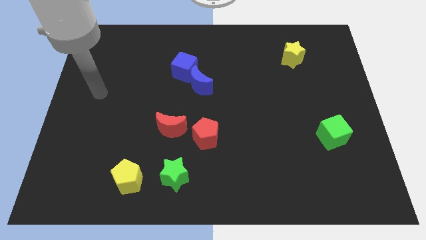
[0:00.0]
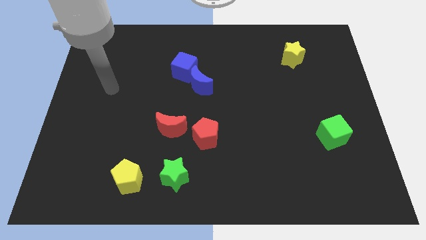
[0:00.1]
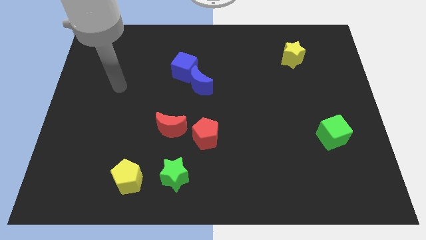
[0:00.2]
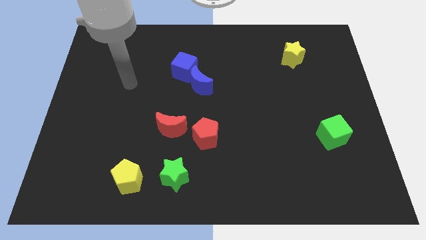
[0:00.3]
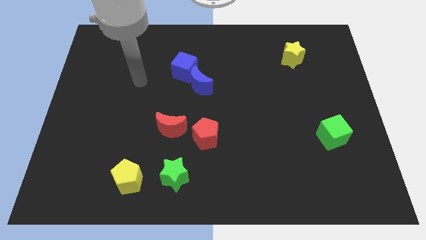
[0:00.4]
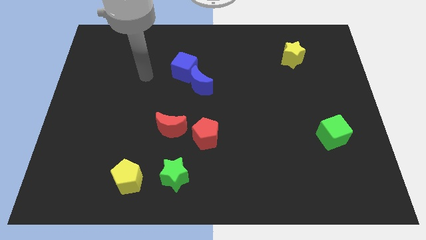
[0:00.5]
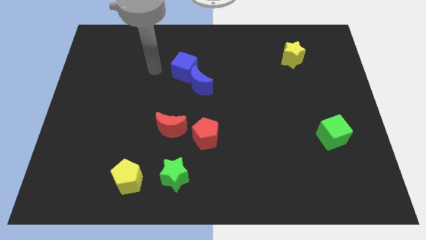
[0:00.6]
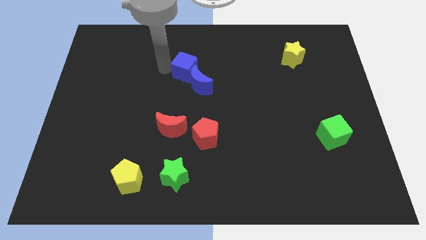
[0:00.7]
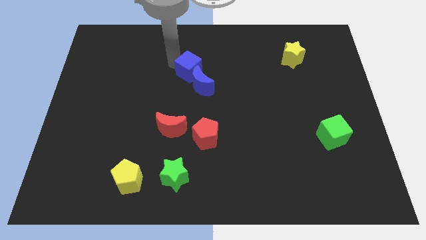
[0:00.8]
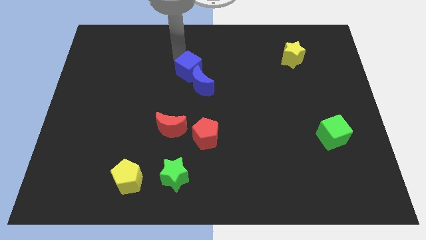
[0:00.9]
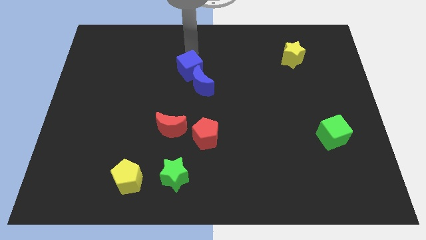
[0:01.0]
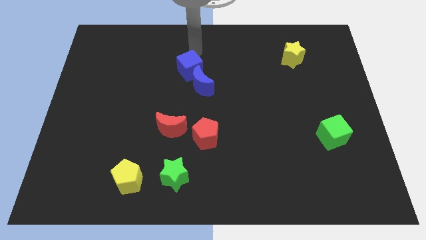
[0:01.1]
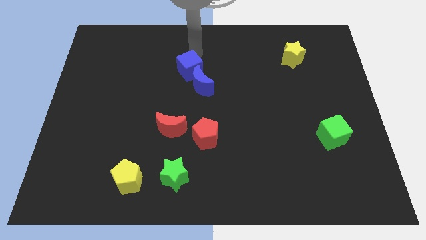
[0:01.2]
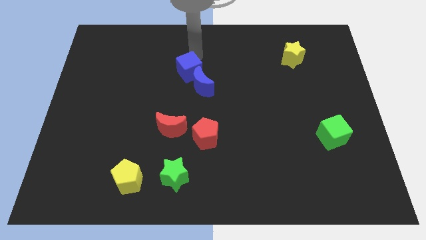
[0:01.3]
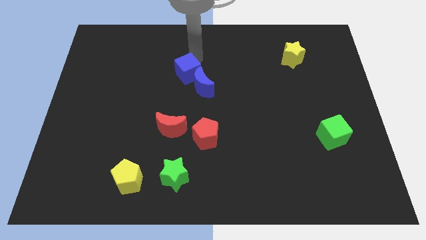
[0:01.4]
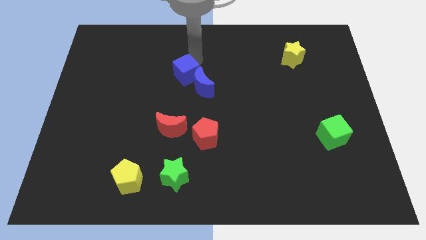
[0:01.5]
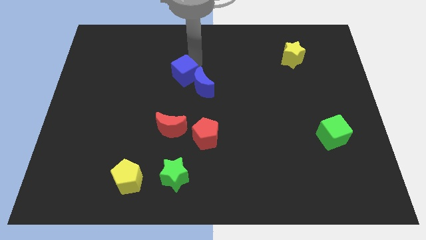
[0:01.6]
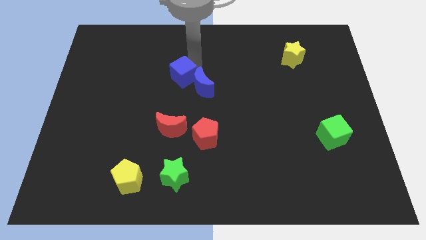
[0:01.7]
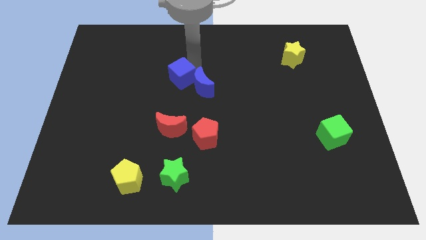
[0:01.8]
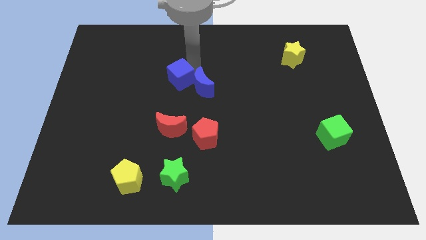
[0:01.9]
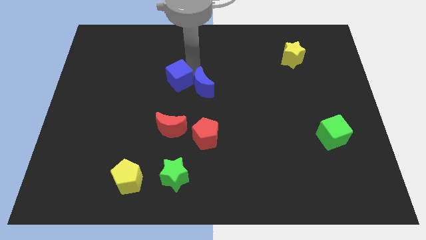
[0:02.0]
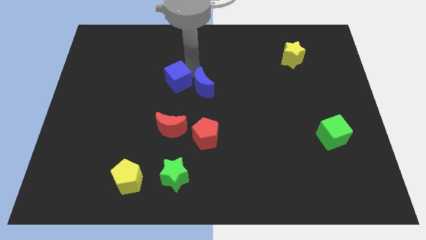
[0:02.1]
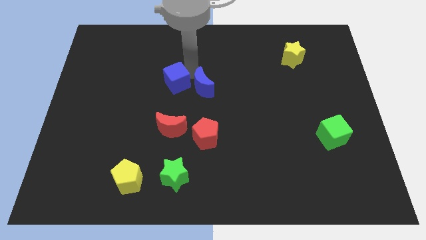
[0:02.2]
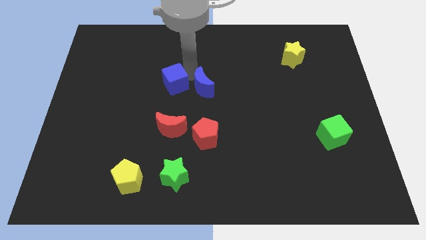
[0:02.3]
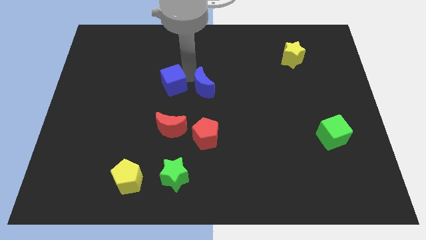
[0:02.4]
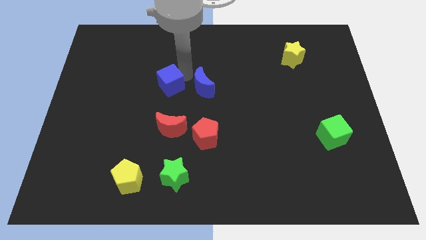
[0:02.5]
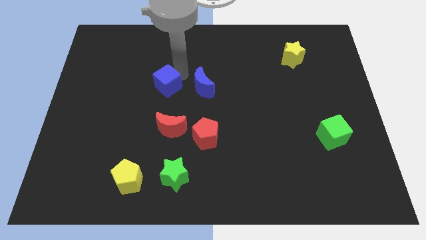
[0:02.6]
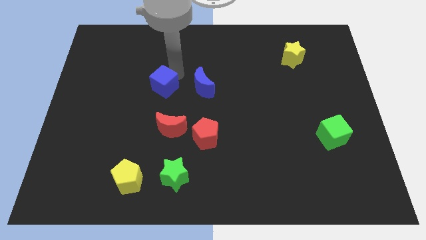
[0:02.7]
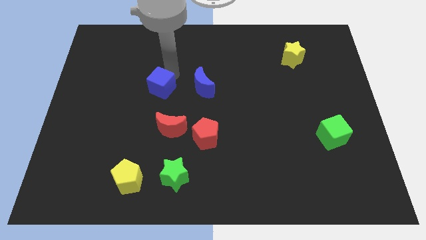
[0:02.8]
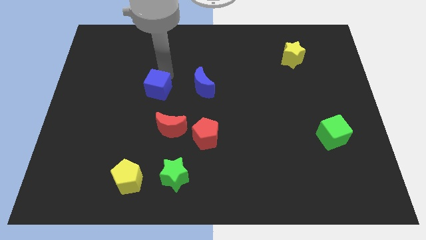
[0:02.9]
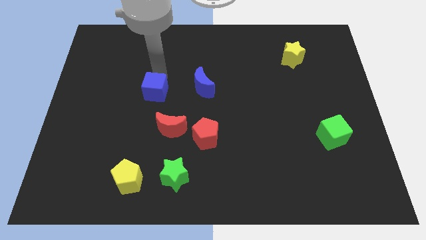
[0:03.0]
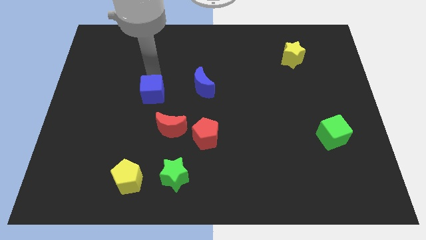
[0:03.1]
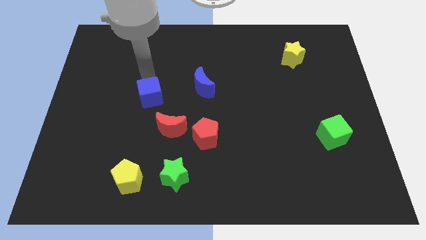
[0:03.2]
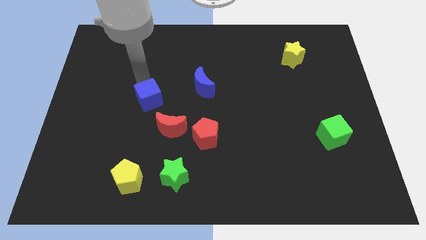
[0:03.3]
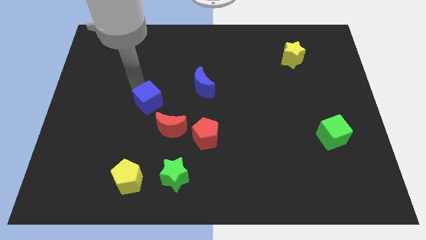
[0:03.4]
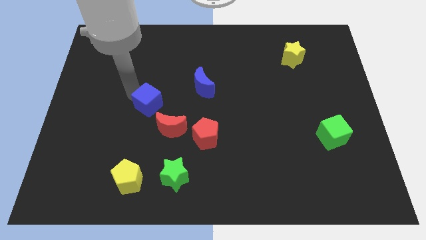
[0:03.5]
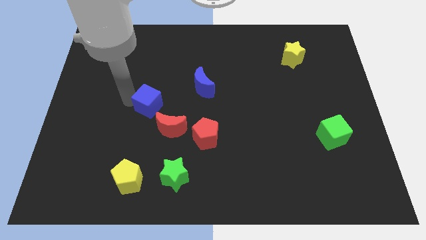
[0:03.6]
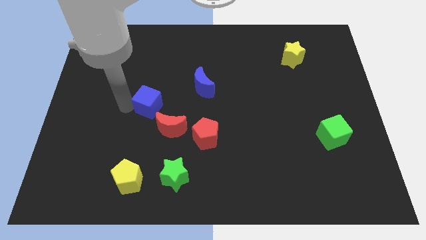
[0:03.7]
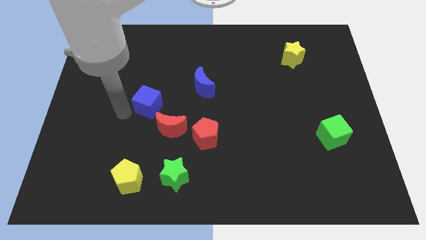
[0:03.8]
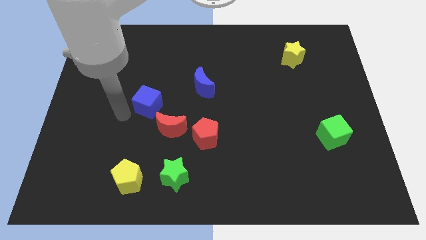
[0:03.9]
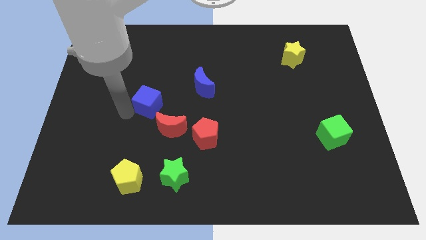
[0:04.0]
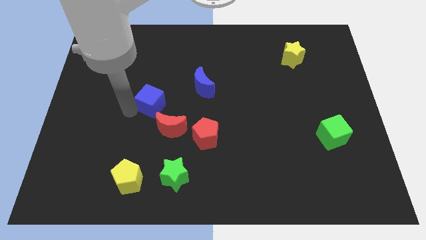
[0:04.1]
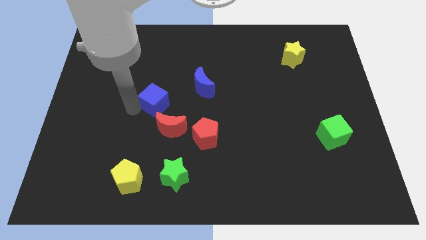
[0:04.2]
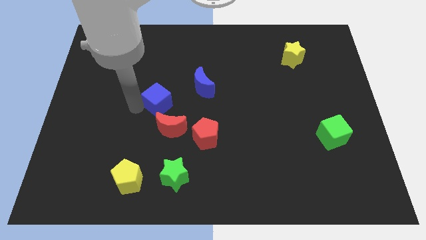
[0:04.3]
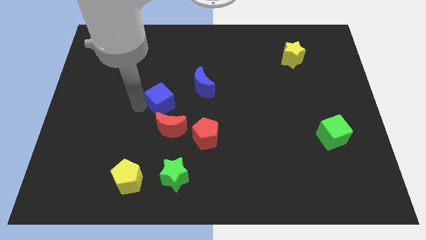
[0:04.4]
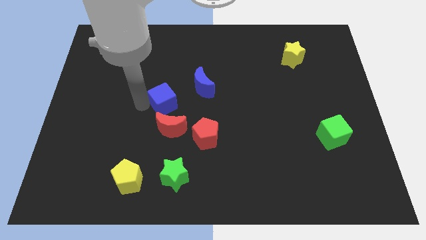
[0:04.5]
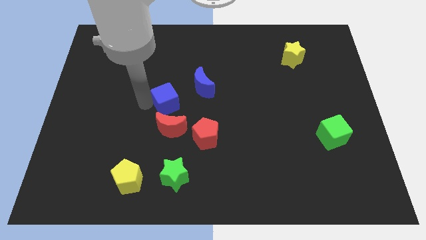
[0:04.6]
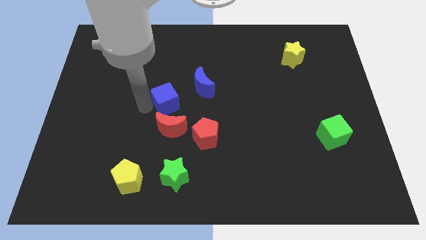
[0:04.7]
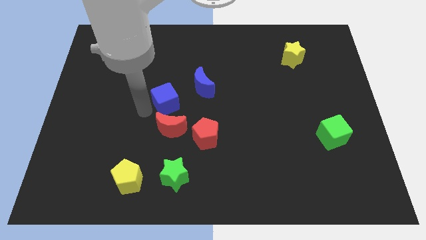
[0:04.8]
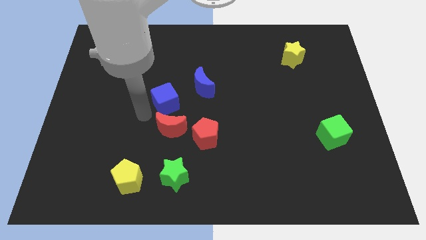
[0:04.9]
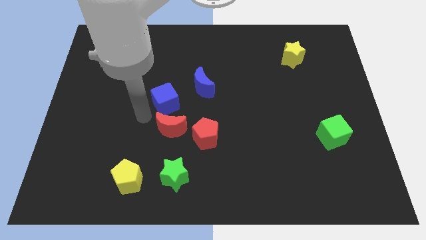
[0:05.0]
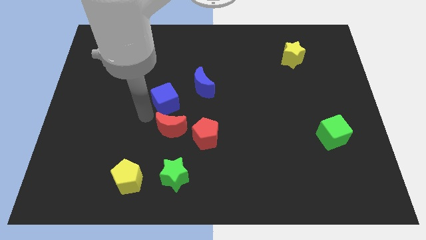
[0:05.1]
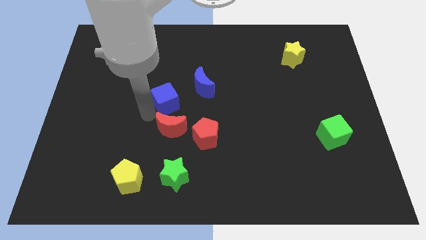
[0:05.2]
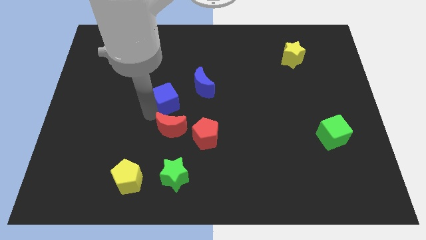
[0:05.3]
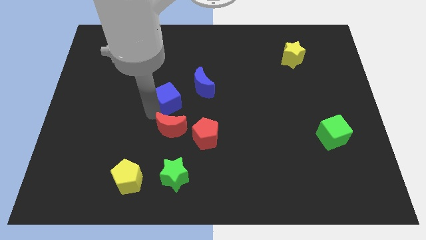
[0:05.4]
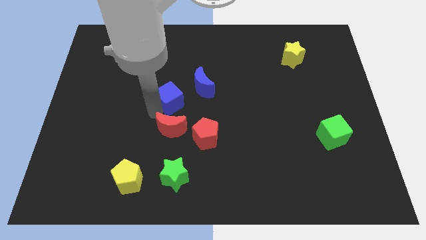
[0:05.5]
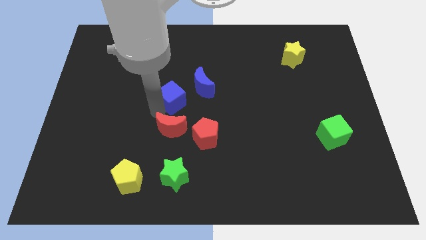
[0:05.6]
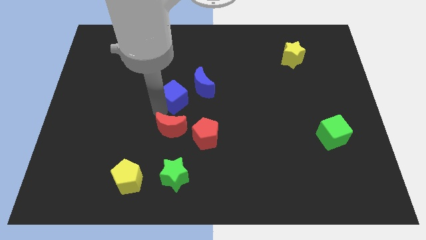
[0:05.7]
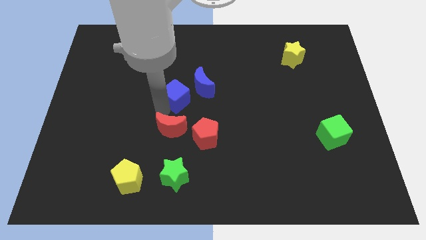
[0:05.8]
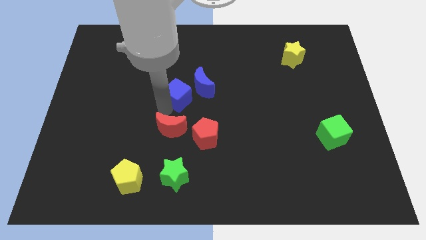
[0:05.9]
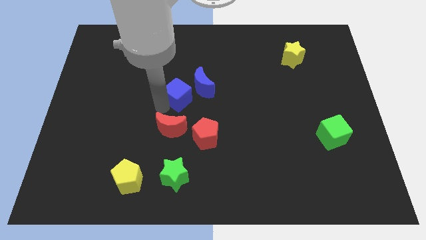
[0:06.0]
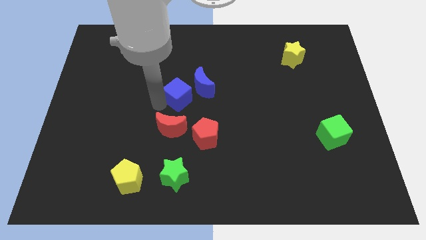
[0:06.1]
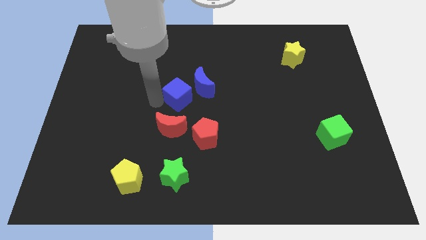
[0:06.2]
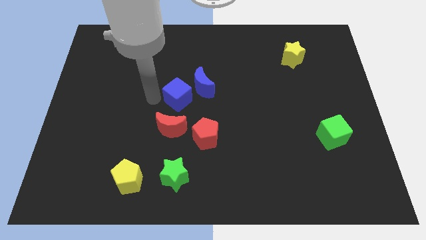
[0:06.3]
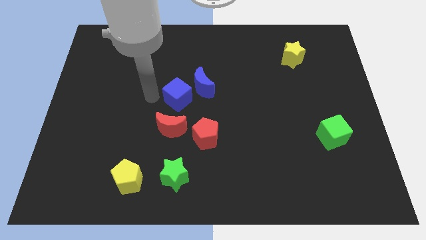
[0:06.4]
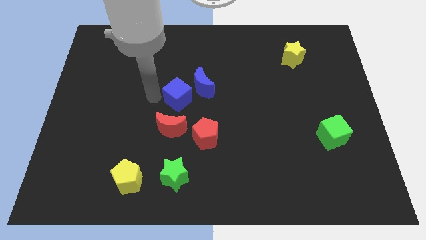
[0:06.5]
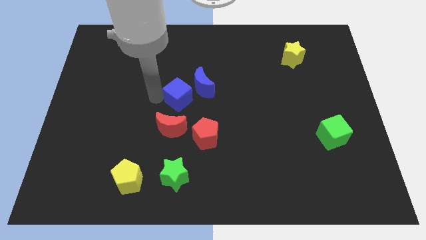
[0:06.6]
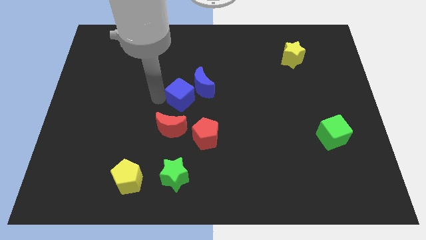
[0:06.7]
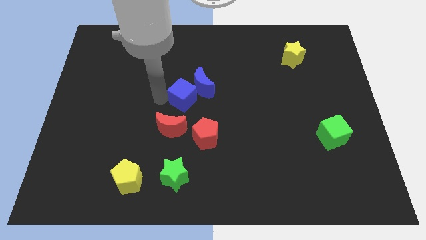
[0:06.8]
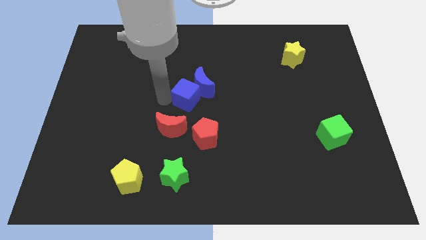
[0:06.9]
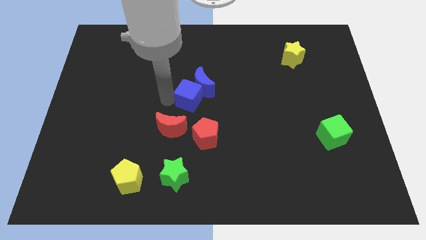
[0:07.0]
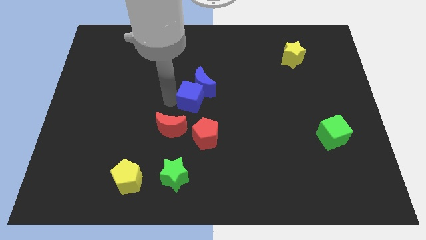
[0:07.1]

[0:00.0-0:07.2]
move the blue cube down and to the right somewhat

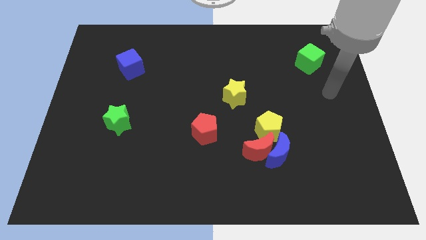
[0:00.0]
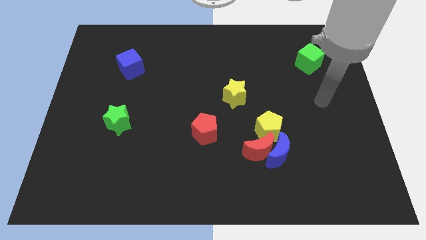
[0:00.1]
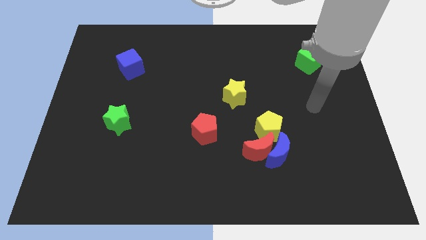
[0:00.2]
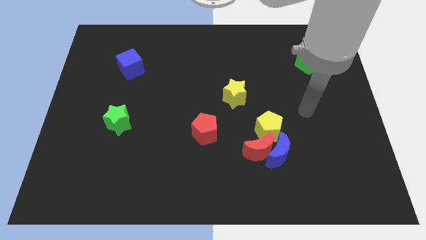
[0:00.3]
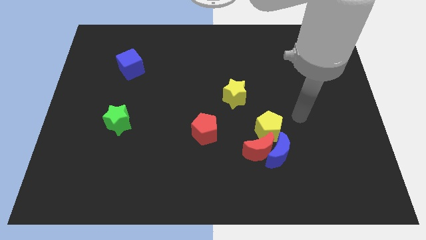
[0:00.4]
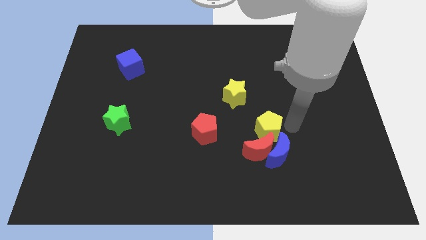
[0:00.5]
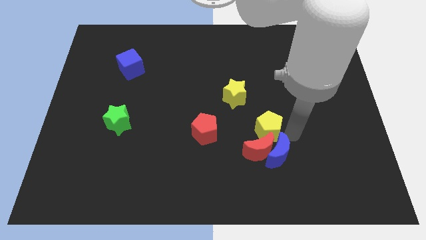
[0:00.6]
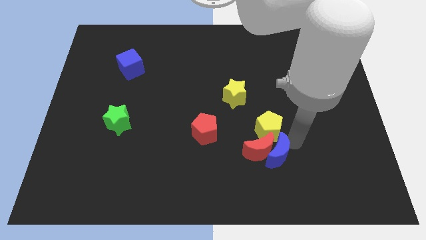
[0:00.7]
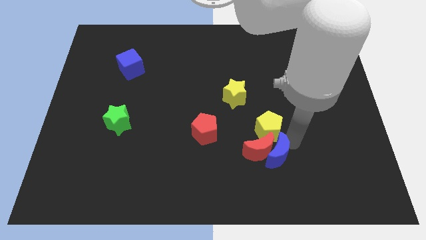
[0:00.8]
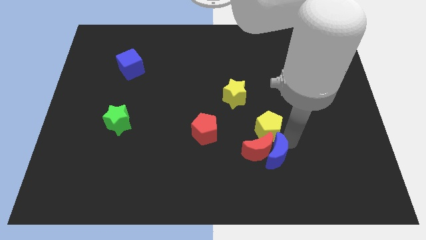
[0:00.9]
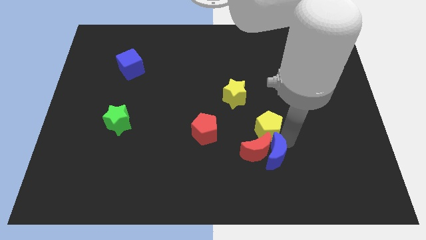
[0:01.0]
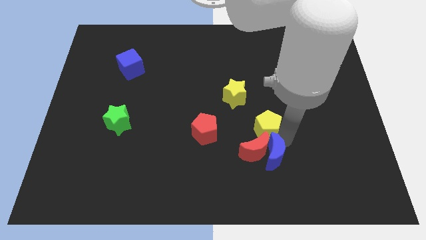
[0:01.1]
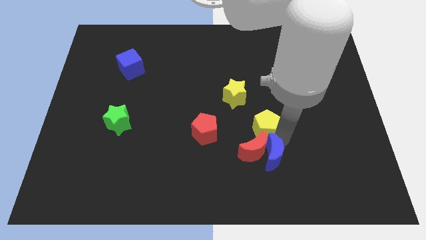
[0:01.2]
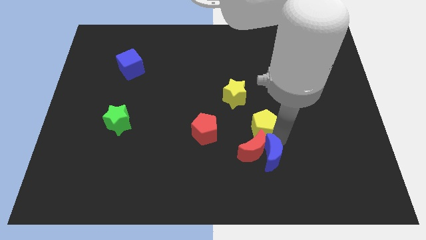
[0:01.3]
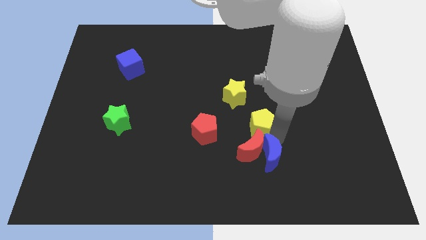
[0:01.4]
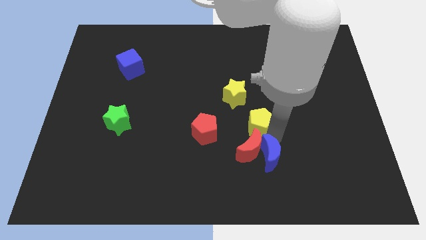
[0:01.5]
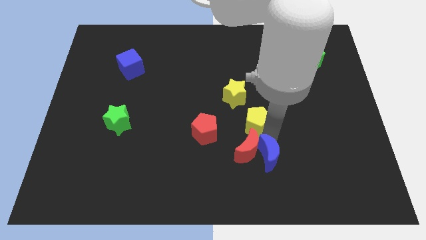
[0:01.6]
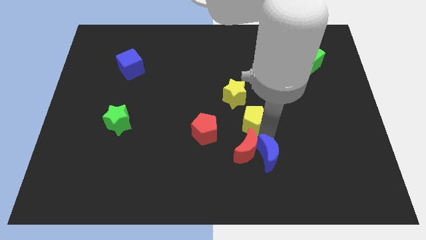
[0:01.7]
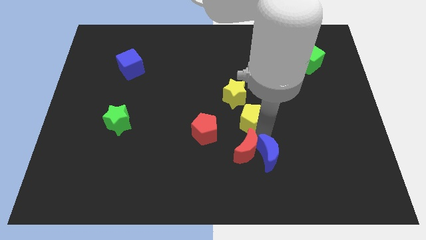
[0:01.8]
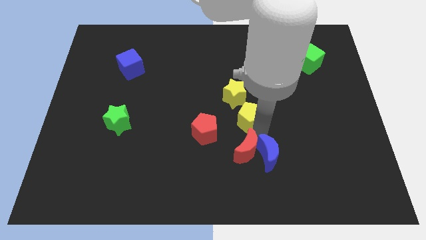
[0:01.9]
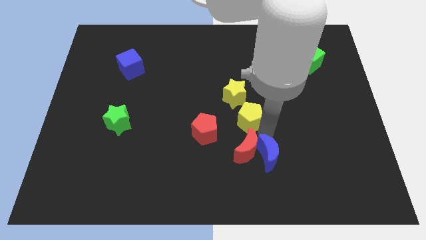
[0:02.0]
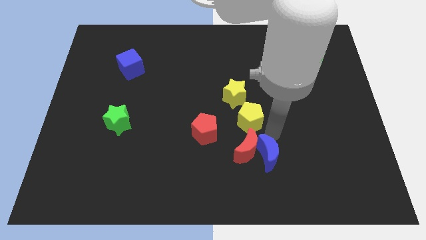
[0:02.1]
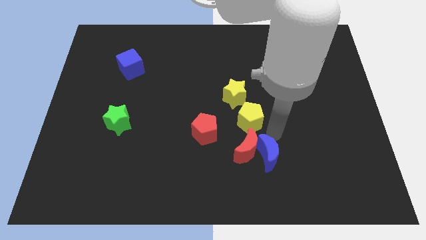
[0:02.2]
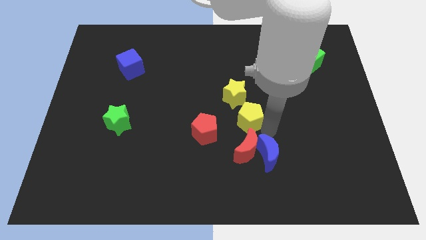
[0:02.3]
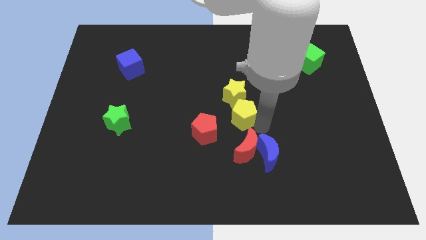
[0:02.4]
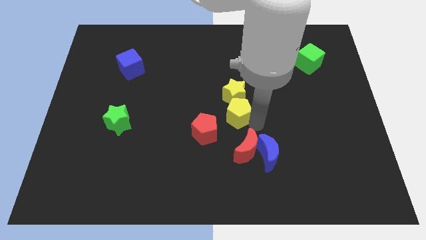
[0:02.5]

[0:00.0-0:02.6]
push the yellow pentagon somewhat up and then to the left
